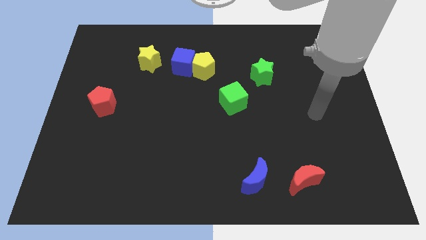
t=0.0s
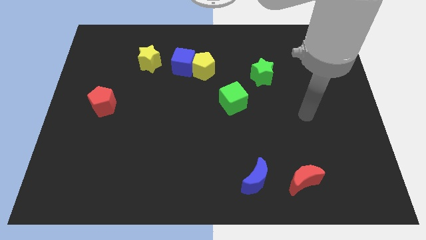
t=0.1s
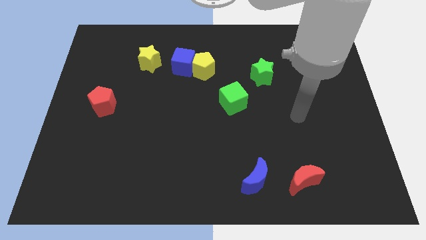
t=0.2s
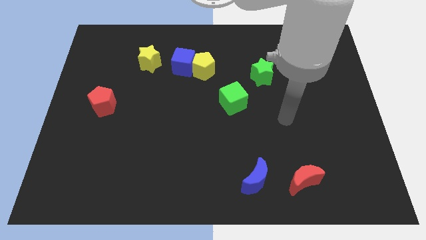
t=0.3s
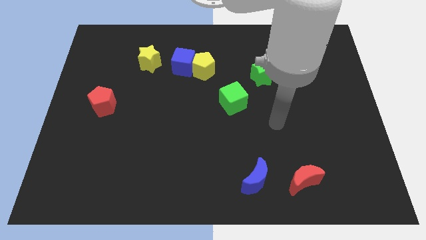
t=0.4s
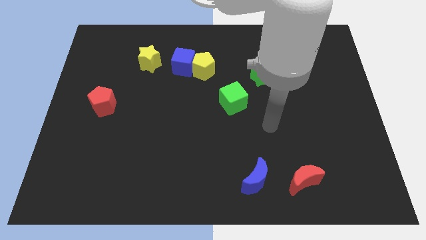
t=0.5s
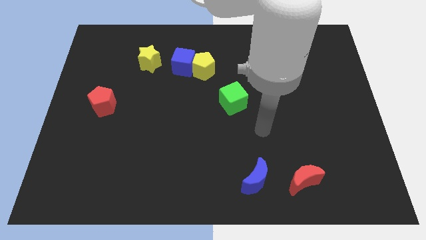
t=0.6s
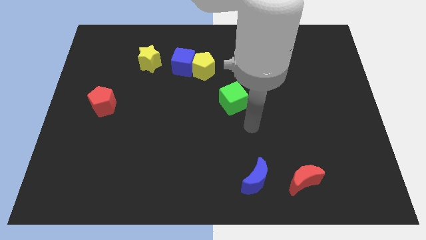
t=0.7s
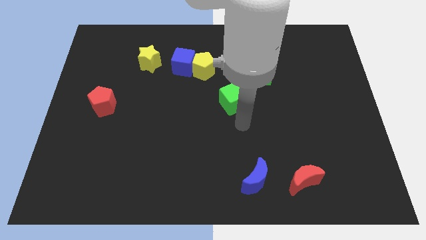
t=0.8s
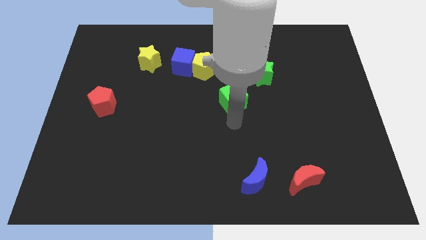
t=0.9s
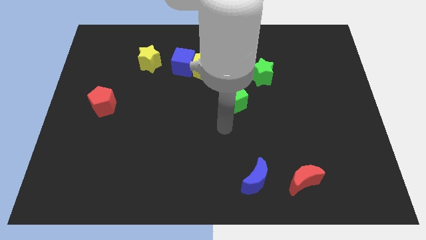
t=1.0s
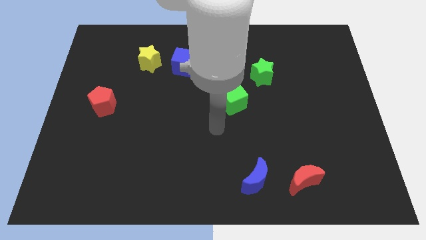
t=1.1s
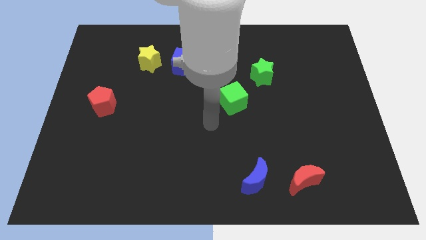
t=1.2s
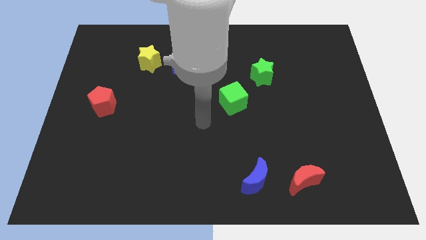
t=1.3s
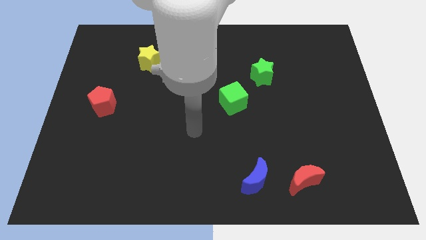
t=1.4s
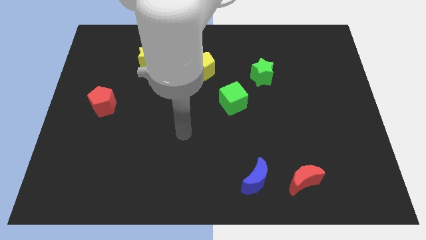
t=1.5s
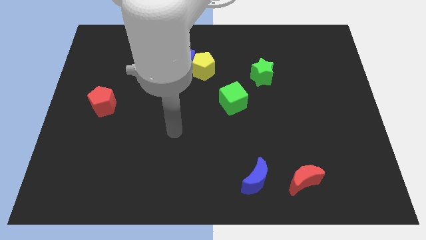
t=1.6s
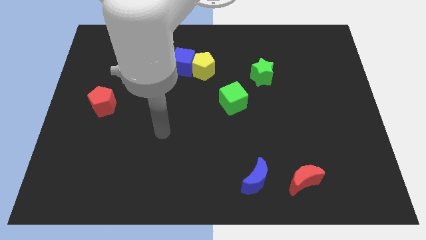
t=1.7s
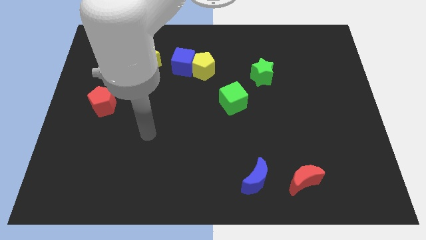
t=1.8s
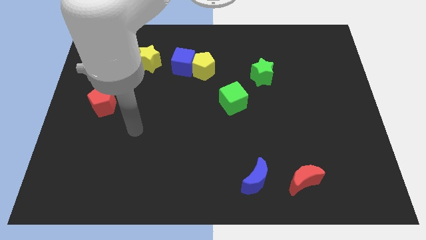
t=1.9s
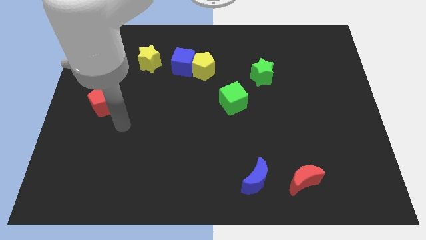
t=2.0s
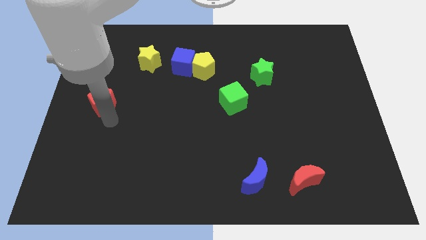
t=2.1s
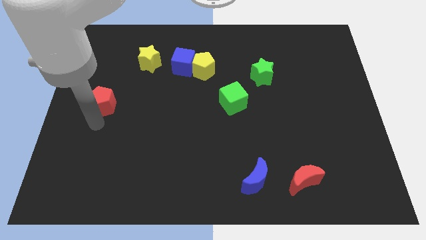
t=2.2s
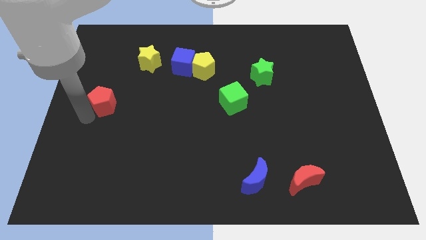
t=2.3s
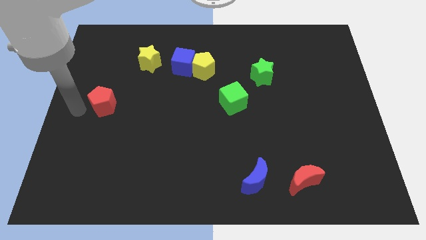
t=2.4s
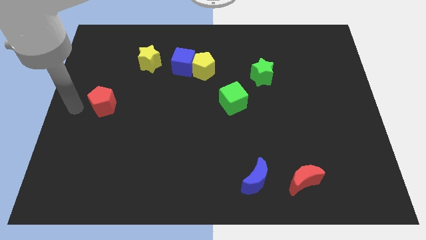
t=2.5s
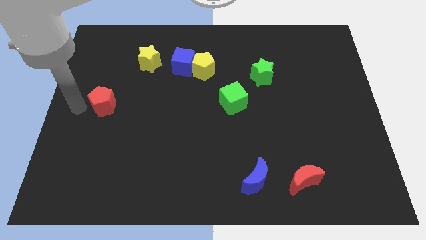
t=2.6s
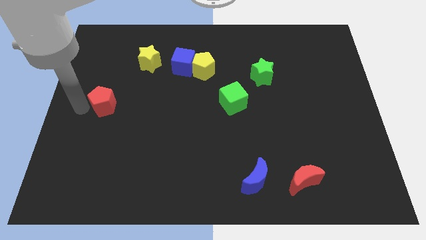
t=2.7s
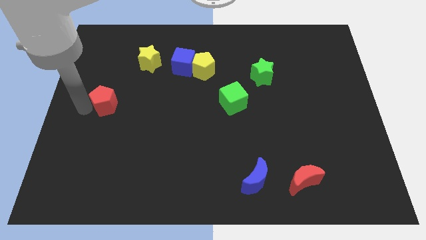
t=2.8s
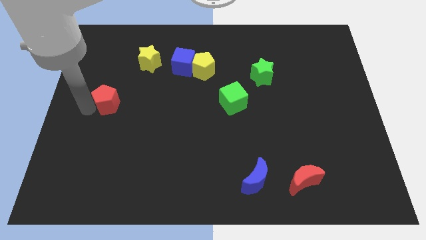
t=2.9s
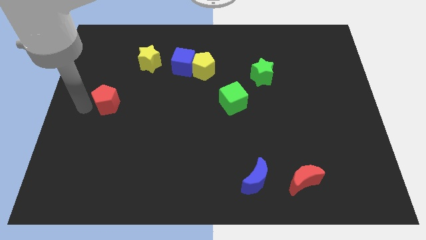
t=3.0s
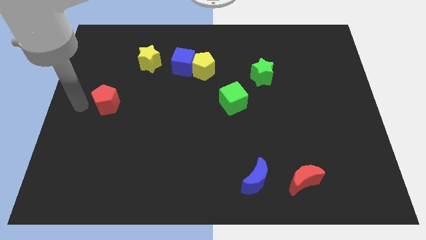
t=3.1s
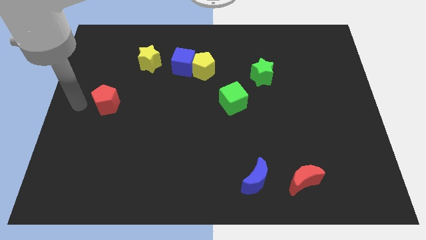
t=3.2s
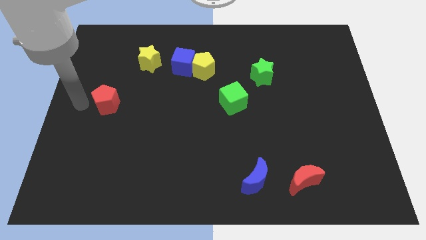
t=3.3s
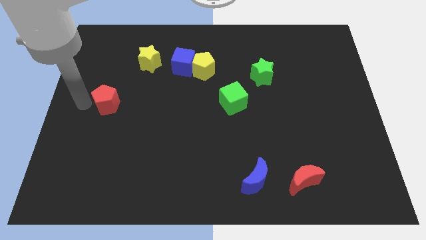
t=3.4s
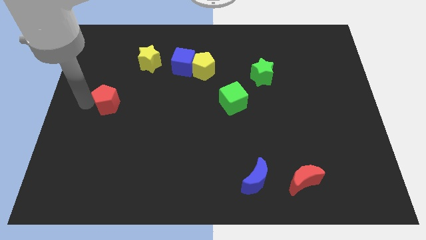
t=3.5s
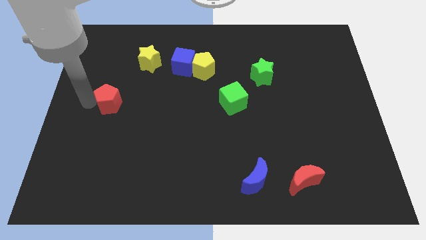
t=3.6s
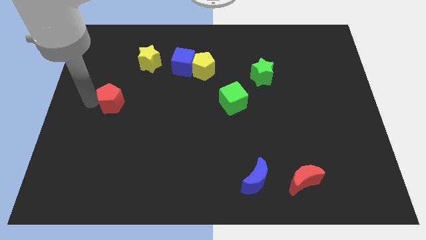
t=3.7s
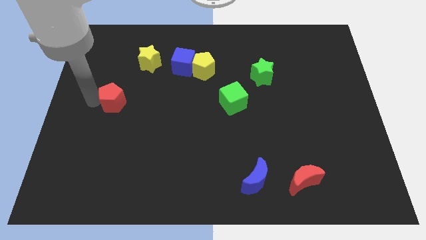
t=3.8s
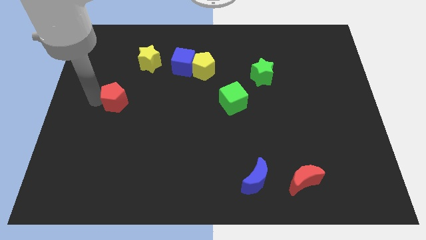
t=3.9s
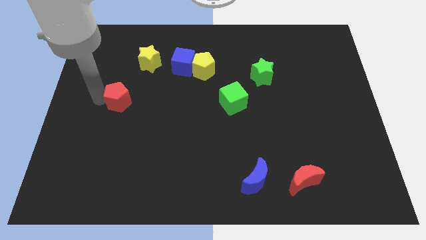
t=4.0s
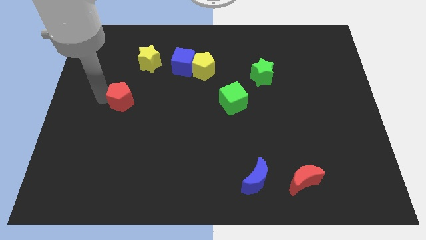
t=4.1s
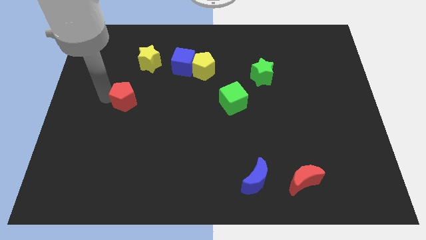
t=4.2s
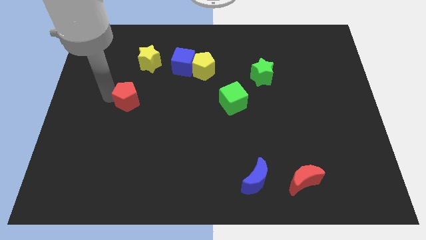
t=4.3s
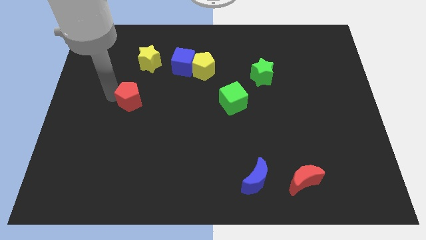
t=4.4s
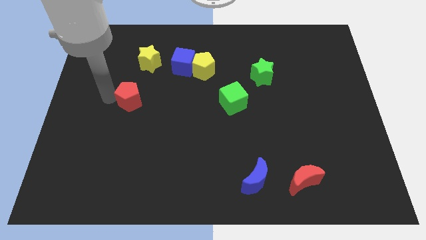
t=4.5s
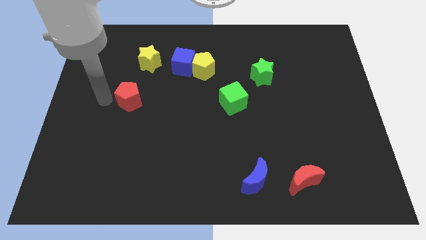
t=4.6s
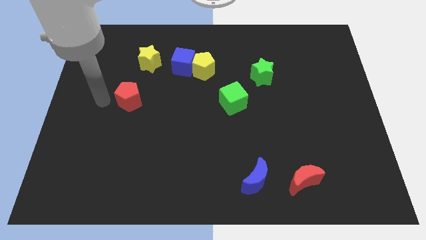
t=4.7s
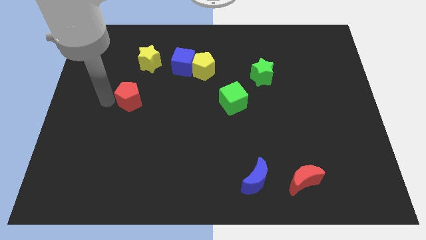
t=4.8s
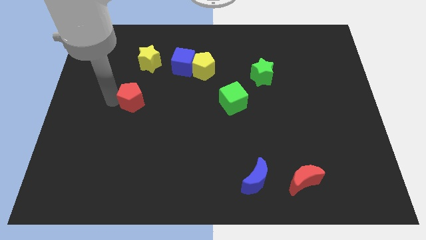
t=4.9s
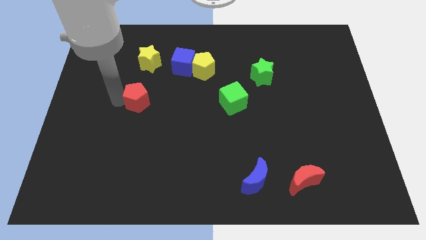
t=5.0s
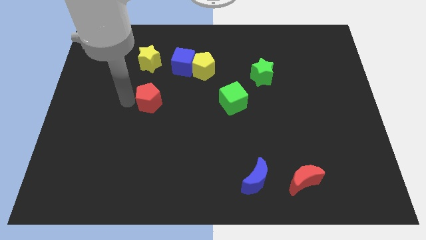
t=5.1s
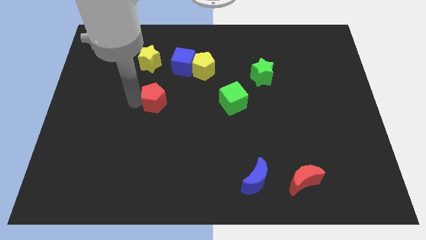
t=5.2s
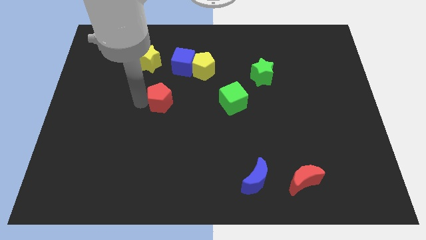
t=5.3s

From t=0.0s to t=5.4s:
push the red pentagon to the middle of the board
